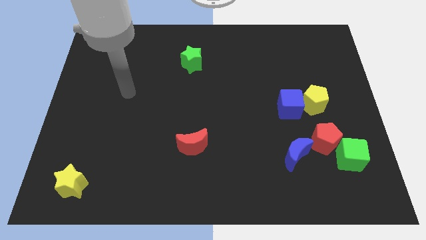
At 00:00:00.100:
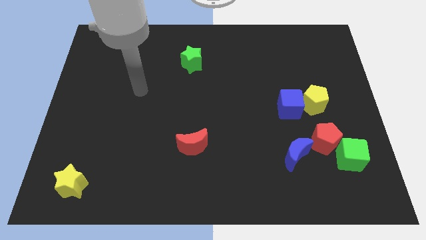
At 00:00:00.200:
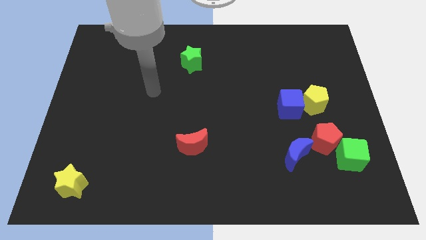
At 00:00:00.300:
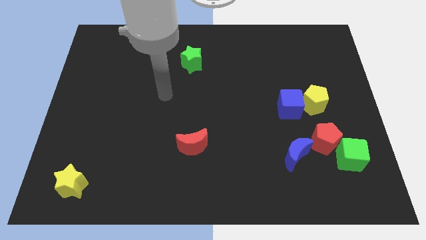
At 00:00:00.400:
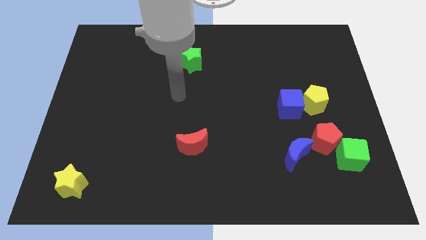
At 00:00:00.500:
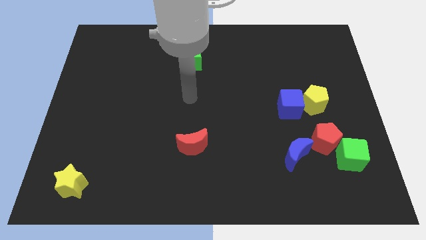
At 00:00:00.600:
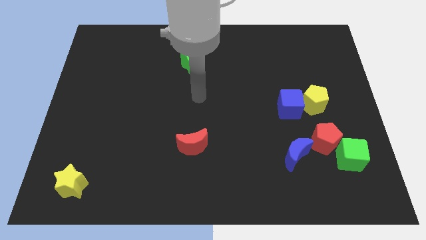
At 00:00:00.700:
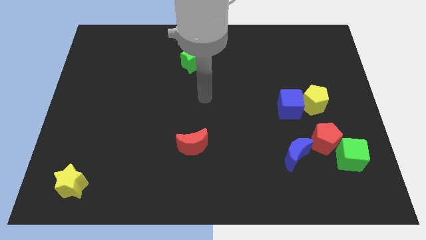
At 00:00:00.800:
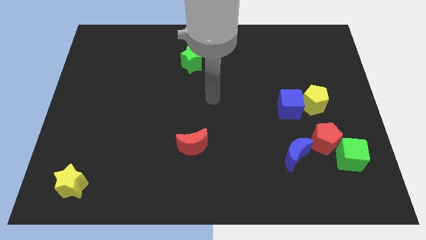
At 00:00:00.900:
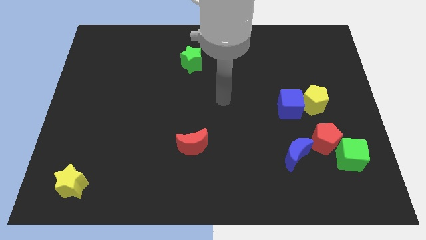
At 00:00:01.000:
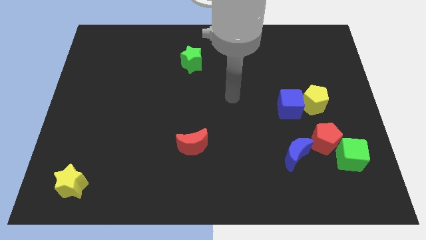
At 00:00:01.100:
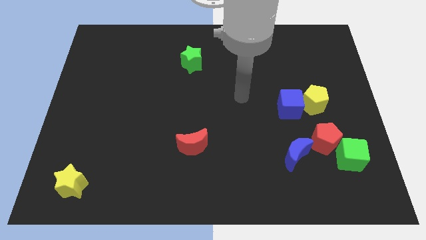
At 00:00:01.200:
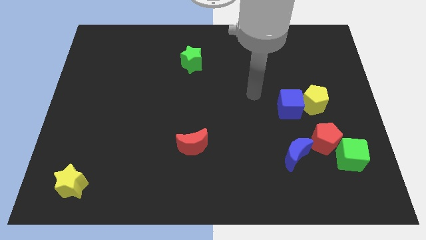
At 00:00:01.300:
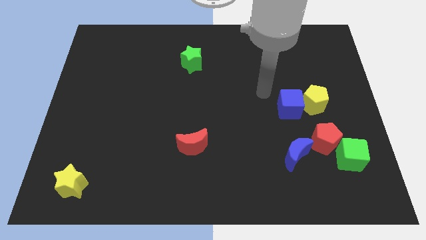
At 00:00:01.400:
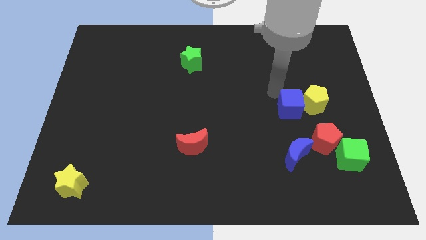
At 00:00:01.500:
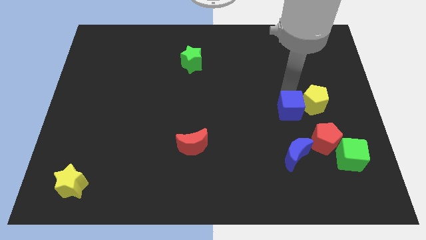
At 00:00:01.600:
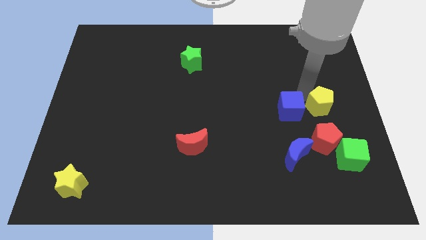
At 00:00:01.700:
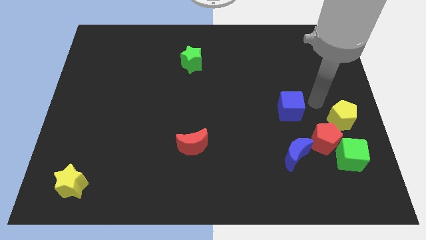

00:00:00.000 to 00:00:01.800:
move the blue cube away from the yellow pentagon

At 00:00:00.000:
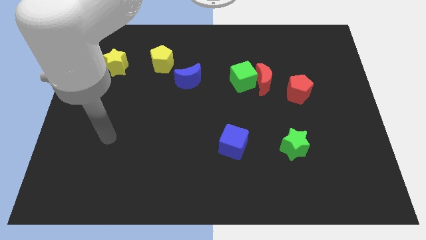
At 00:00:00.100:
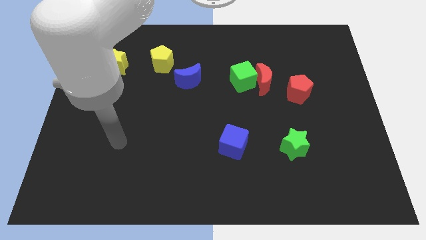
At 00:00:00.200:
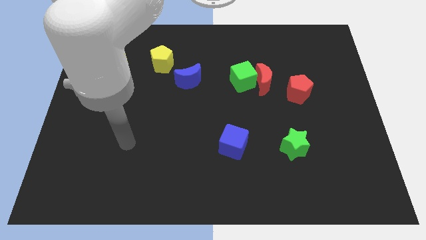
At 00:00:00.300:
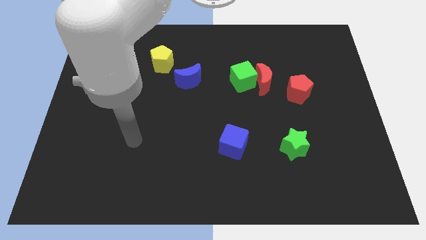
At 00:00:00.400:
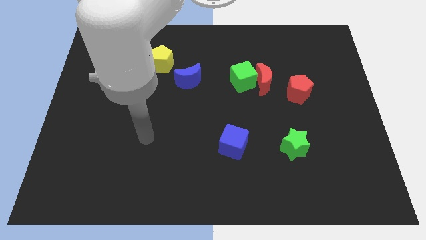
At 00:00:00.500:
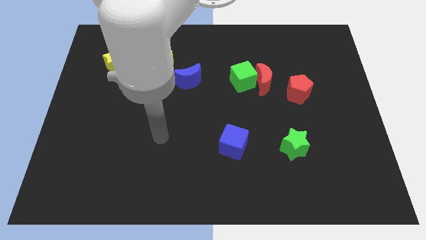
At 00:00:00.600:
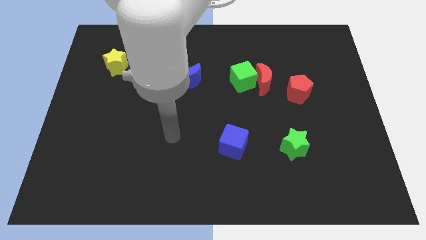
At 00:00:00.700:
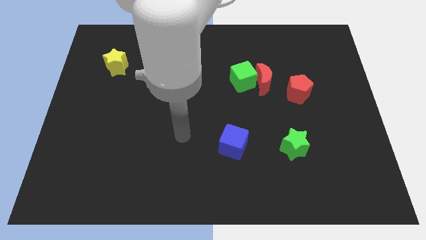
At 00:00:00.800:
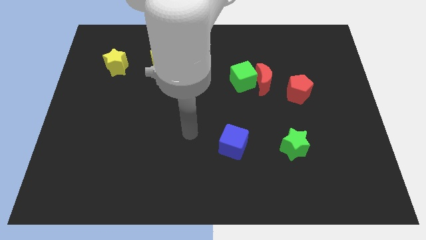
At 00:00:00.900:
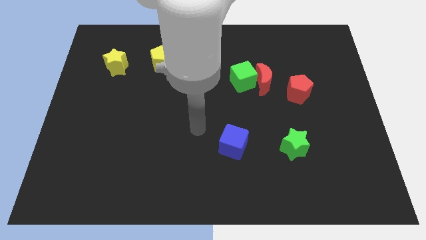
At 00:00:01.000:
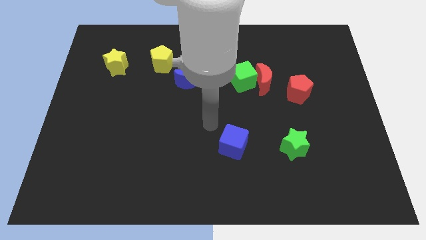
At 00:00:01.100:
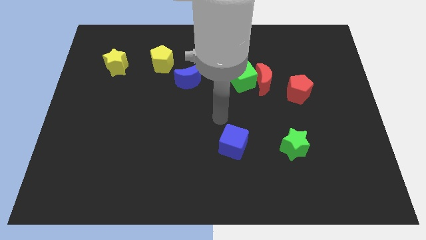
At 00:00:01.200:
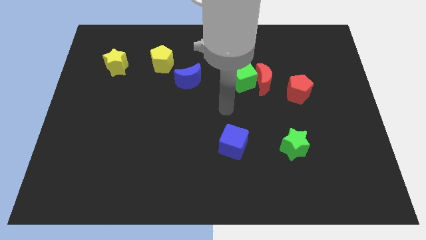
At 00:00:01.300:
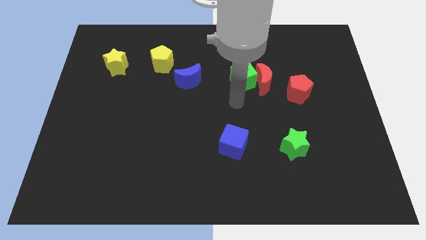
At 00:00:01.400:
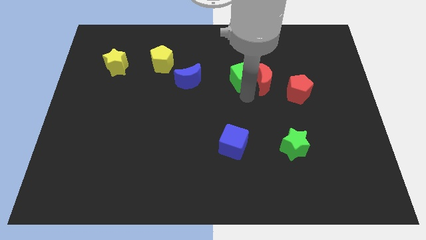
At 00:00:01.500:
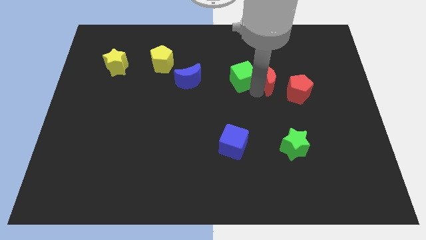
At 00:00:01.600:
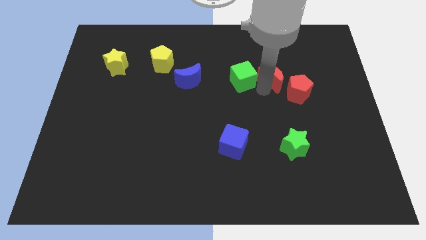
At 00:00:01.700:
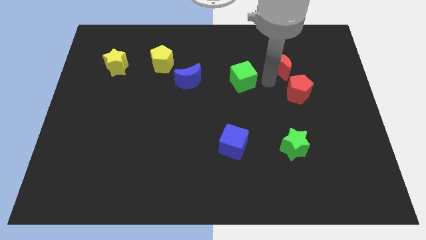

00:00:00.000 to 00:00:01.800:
move the green cube away from the red moon

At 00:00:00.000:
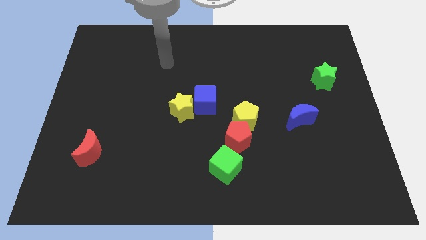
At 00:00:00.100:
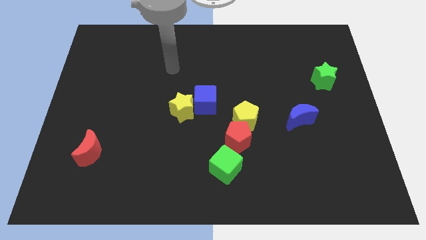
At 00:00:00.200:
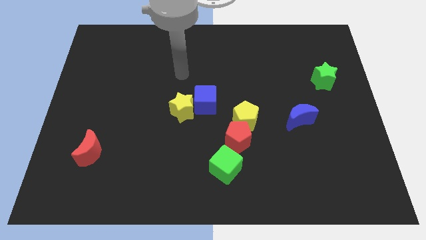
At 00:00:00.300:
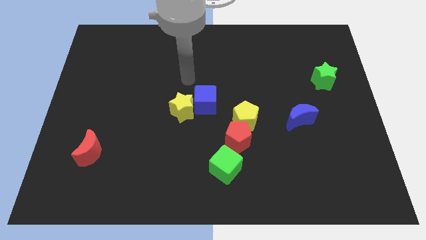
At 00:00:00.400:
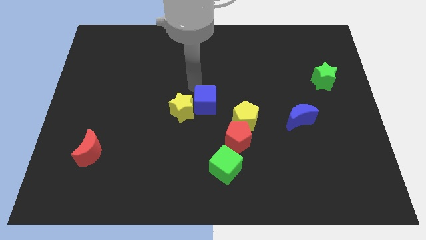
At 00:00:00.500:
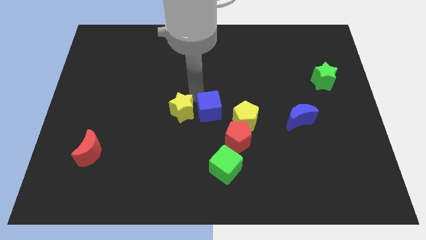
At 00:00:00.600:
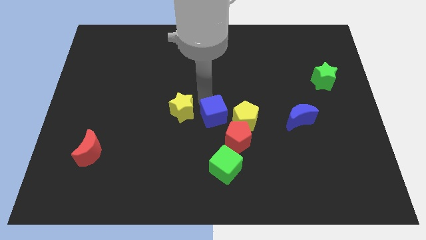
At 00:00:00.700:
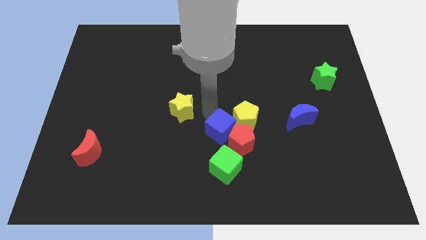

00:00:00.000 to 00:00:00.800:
pull the yellow star apart from the blue cube

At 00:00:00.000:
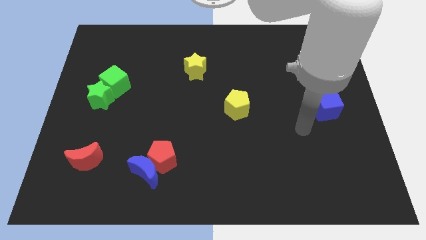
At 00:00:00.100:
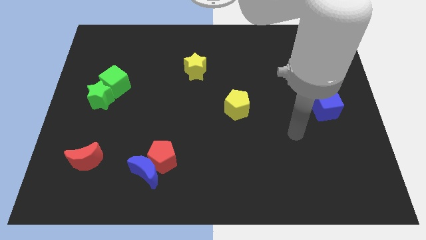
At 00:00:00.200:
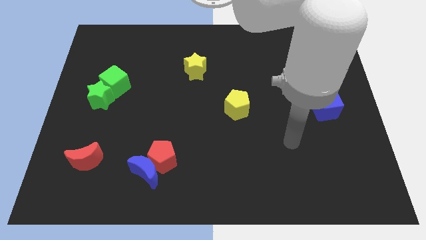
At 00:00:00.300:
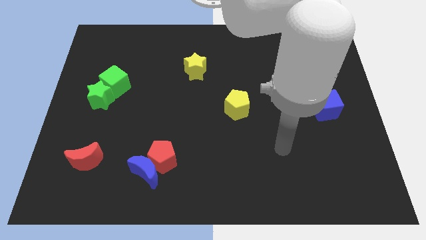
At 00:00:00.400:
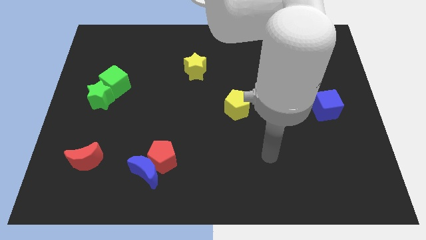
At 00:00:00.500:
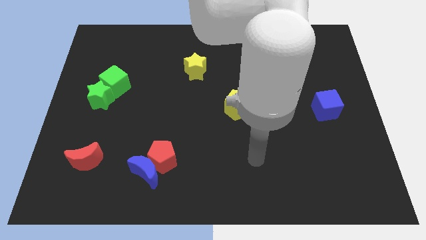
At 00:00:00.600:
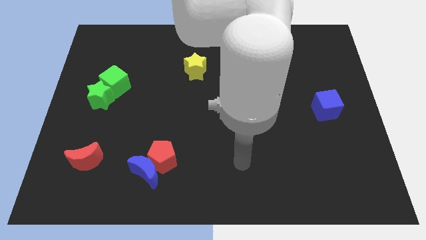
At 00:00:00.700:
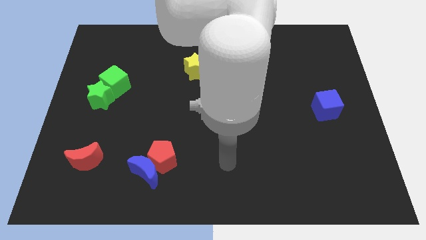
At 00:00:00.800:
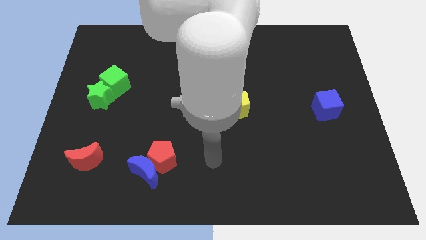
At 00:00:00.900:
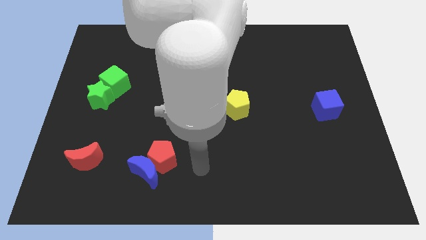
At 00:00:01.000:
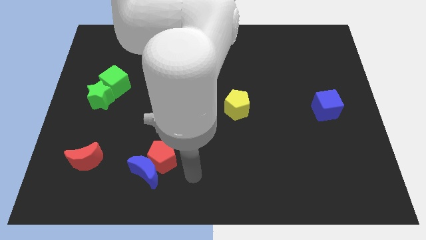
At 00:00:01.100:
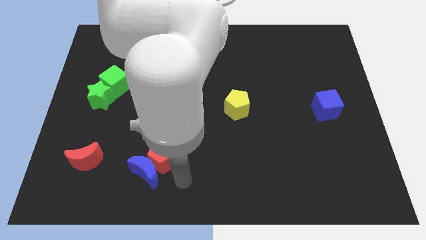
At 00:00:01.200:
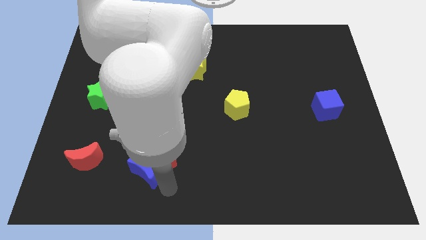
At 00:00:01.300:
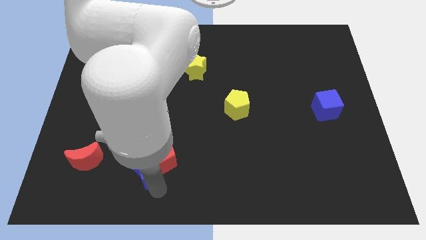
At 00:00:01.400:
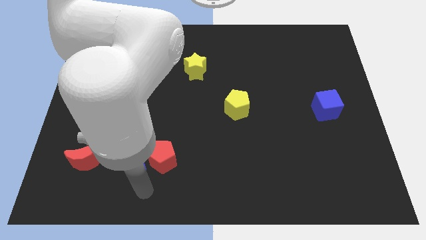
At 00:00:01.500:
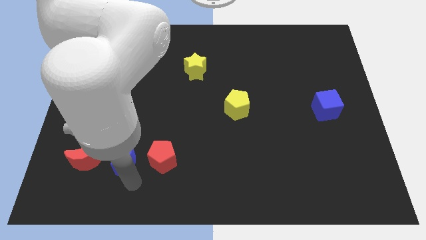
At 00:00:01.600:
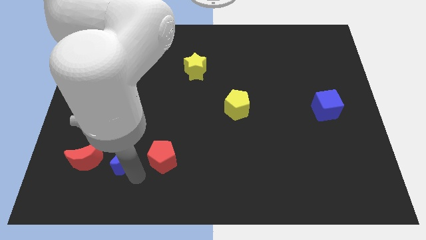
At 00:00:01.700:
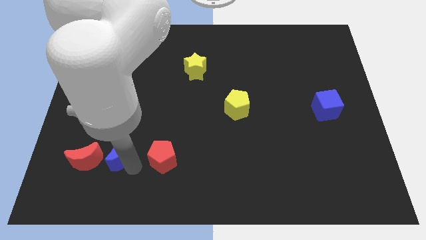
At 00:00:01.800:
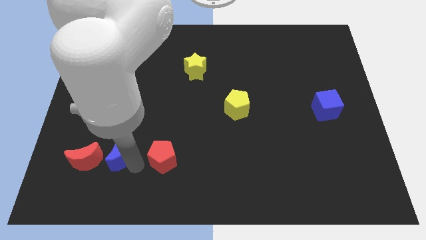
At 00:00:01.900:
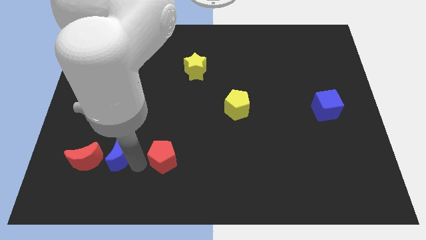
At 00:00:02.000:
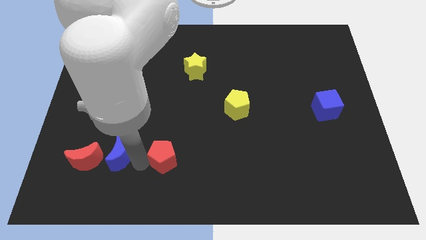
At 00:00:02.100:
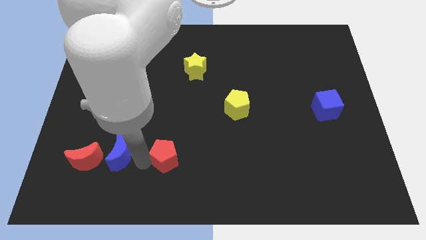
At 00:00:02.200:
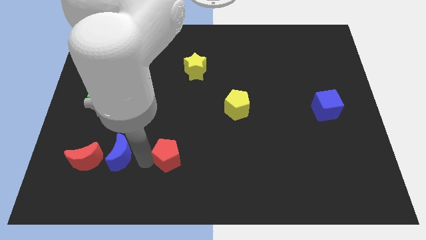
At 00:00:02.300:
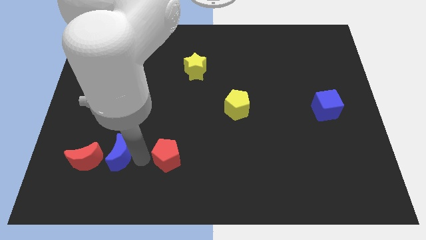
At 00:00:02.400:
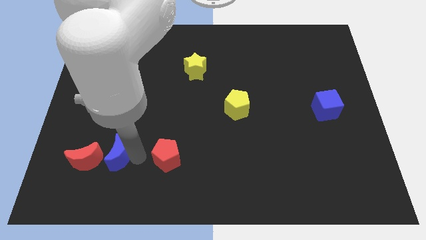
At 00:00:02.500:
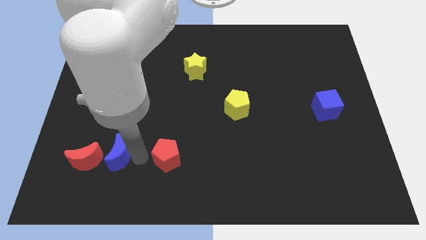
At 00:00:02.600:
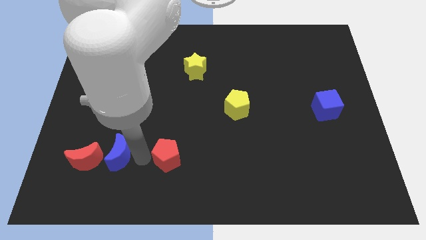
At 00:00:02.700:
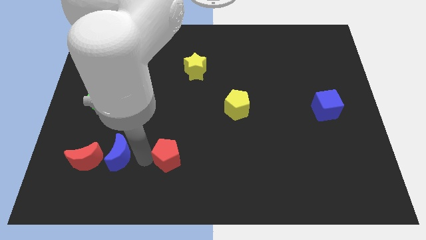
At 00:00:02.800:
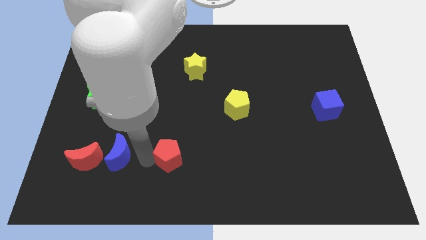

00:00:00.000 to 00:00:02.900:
move the red pentagon away from the blue moon

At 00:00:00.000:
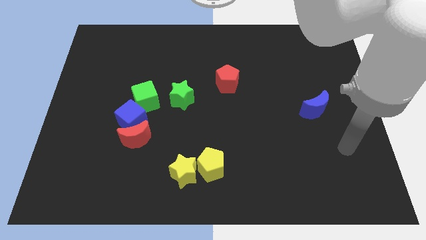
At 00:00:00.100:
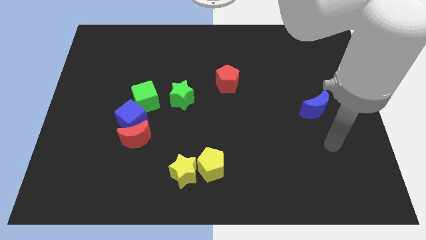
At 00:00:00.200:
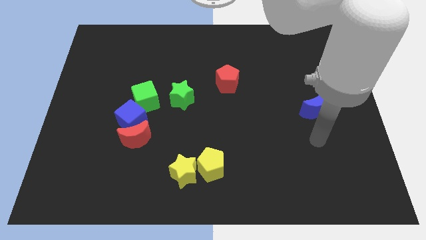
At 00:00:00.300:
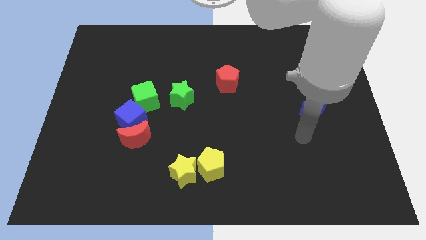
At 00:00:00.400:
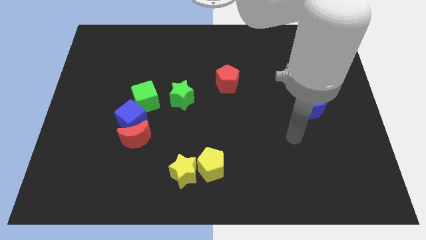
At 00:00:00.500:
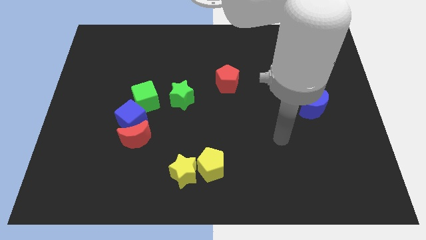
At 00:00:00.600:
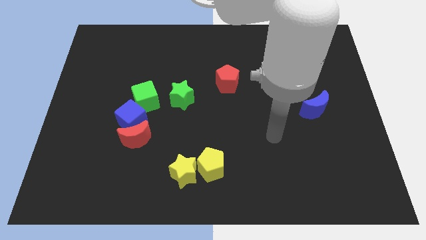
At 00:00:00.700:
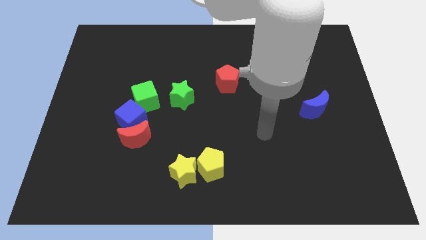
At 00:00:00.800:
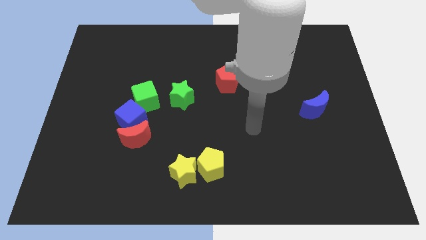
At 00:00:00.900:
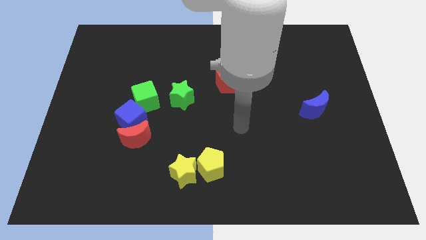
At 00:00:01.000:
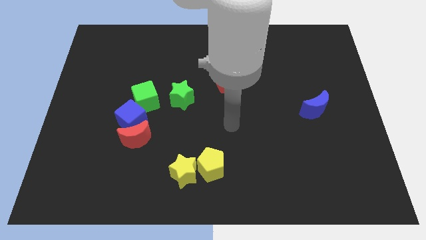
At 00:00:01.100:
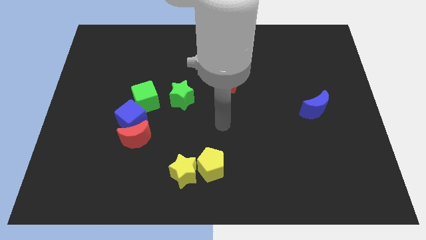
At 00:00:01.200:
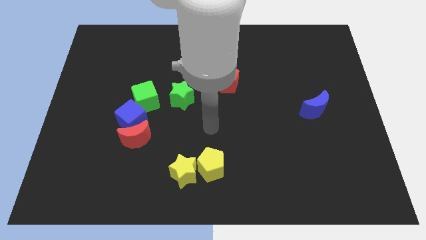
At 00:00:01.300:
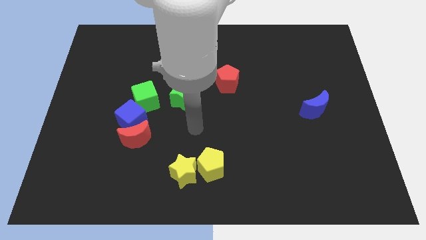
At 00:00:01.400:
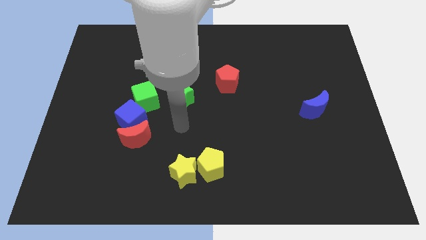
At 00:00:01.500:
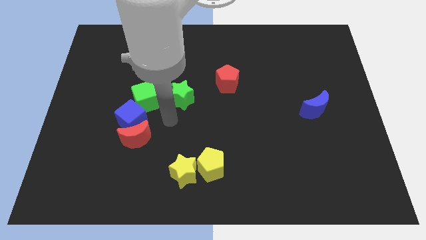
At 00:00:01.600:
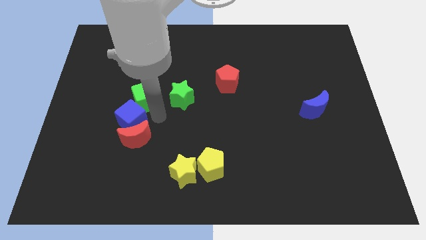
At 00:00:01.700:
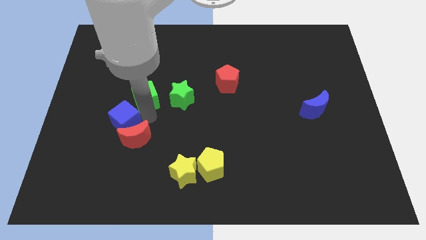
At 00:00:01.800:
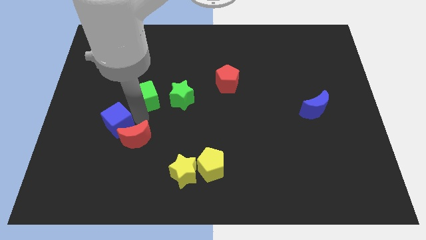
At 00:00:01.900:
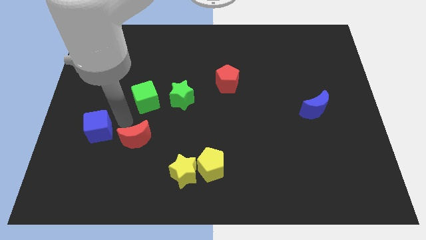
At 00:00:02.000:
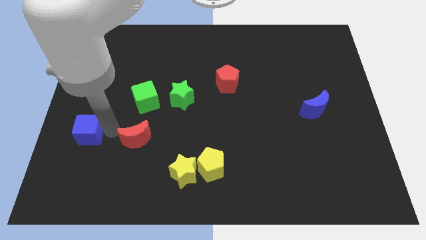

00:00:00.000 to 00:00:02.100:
move the red moon away from the blue cube
